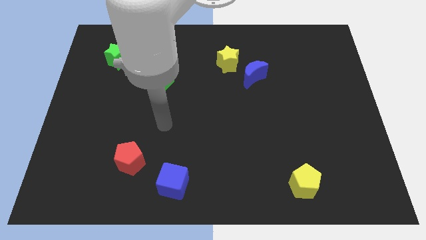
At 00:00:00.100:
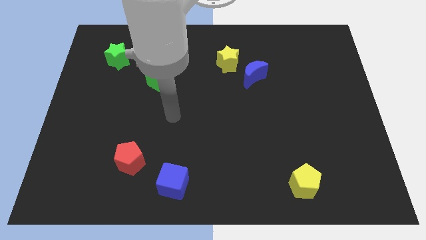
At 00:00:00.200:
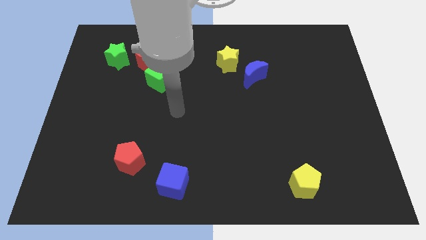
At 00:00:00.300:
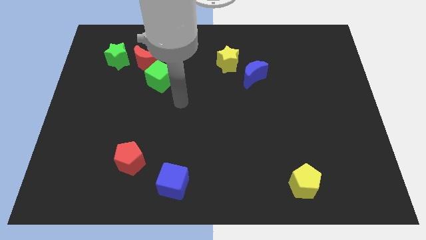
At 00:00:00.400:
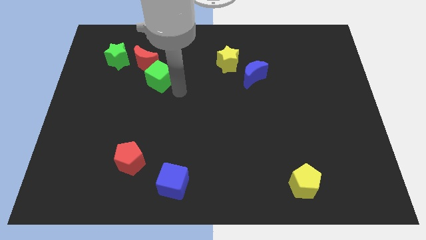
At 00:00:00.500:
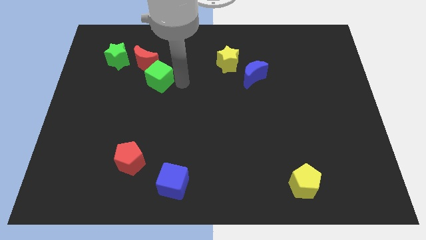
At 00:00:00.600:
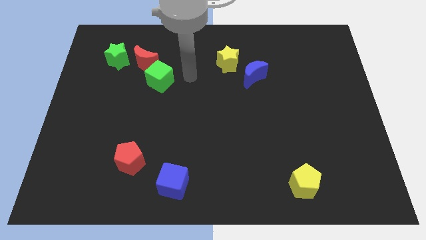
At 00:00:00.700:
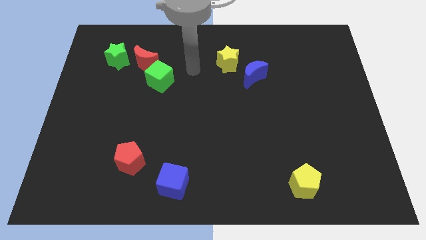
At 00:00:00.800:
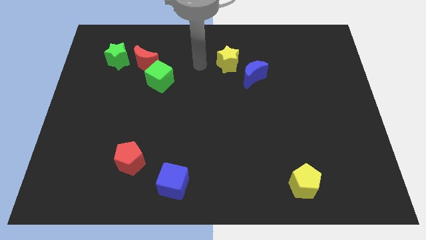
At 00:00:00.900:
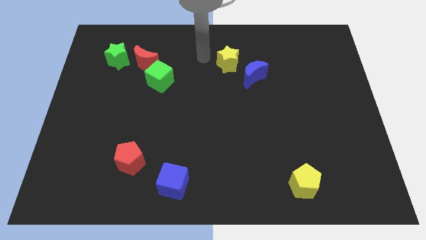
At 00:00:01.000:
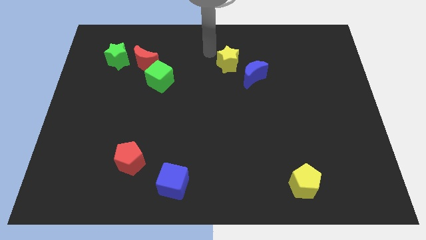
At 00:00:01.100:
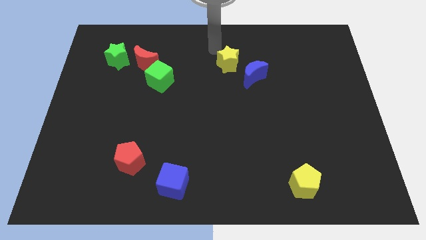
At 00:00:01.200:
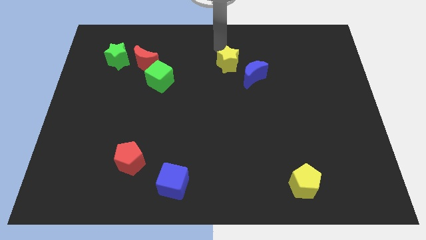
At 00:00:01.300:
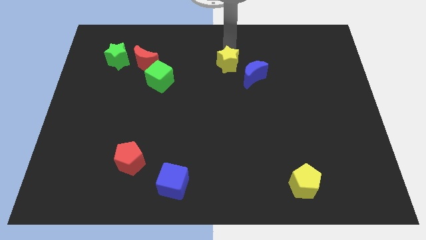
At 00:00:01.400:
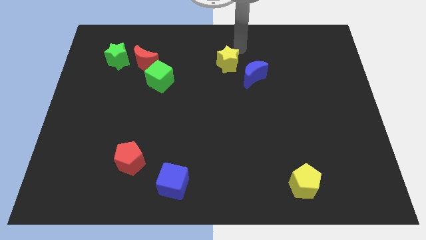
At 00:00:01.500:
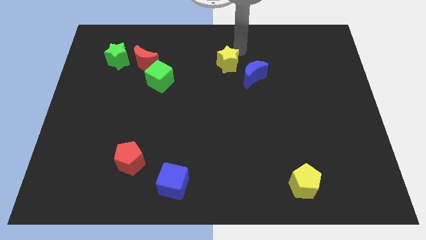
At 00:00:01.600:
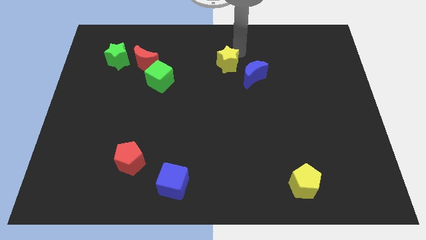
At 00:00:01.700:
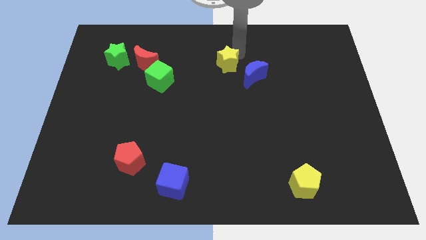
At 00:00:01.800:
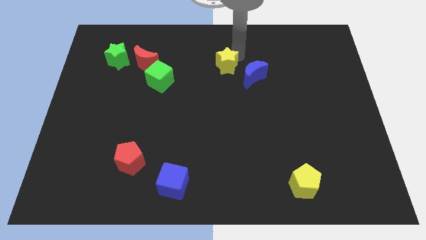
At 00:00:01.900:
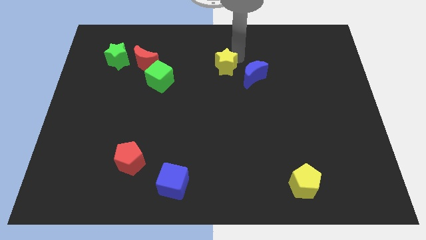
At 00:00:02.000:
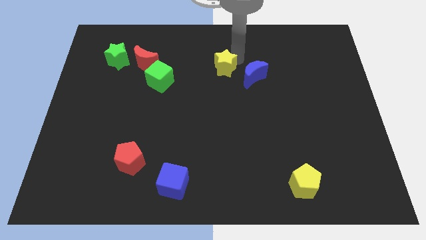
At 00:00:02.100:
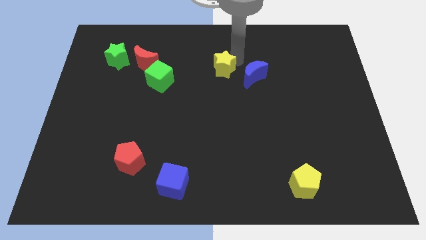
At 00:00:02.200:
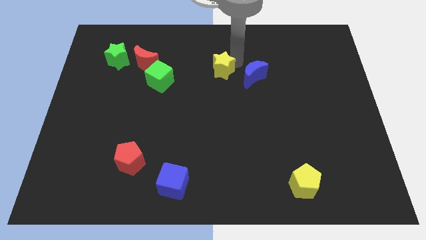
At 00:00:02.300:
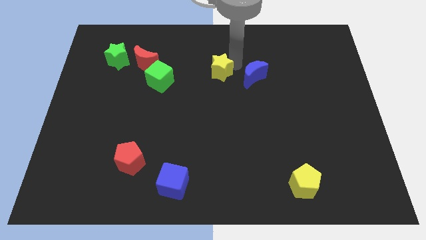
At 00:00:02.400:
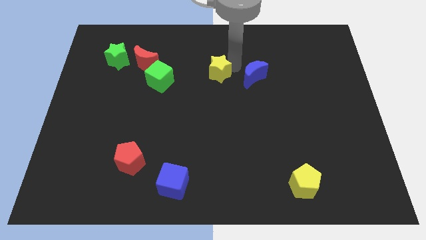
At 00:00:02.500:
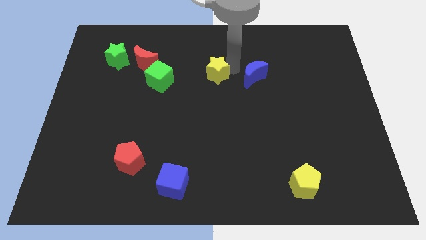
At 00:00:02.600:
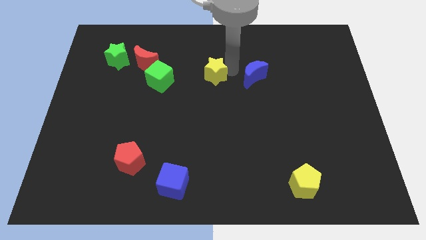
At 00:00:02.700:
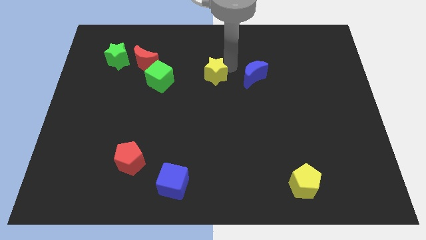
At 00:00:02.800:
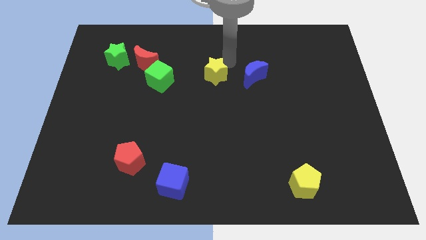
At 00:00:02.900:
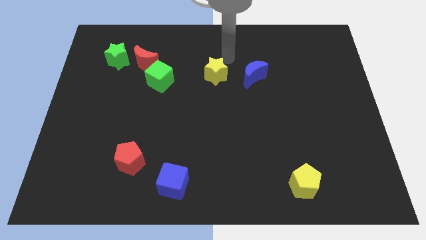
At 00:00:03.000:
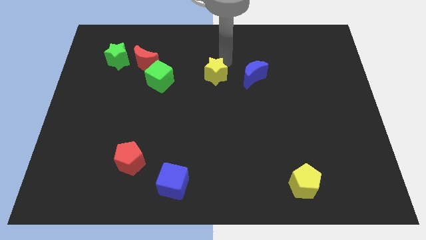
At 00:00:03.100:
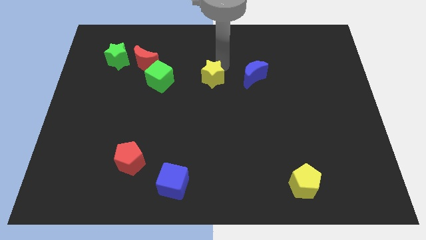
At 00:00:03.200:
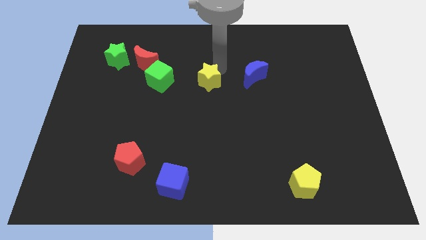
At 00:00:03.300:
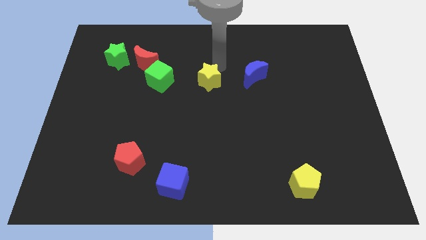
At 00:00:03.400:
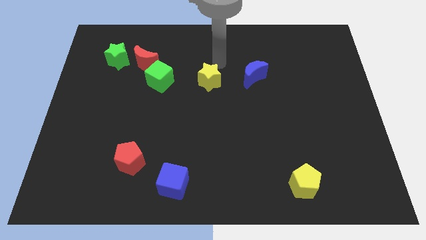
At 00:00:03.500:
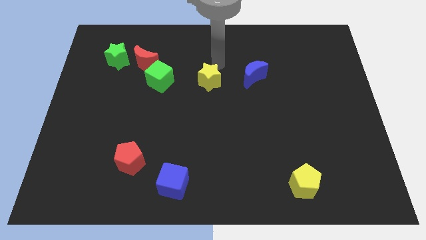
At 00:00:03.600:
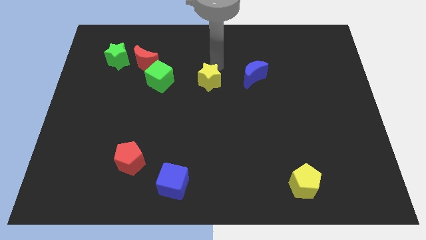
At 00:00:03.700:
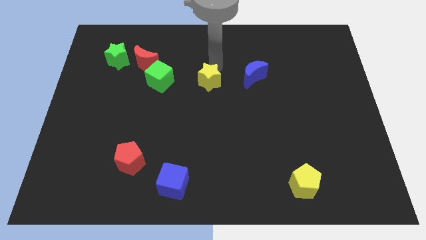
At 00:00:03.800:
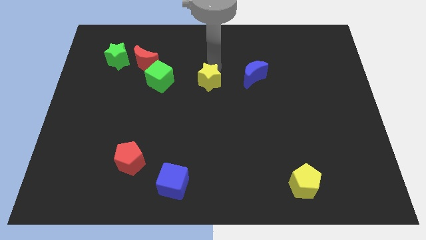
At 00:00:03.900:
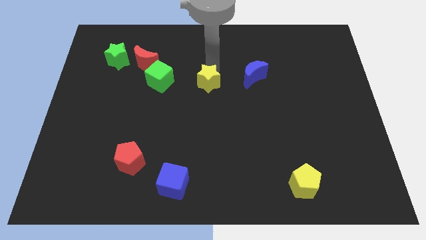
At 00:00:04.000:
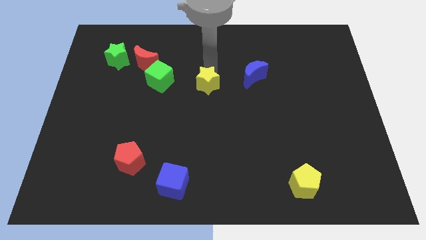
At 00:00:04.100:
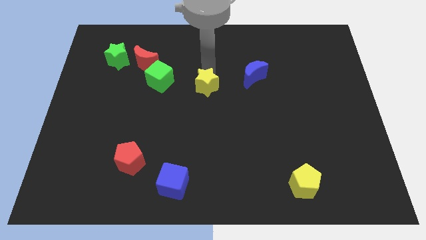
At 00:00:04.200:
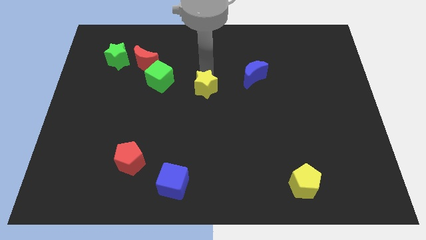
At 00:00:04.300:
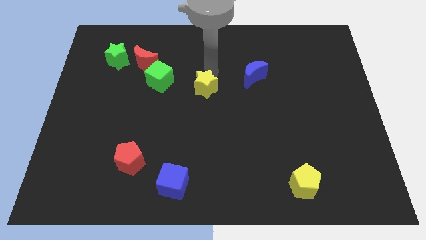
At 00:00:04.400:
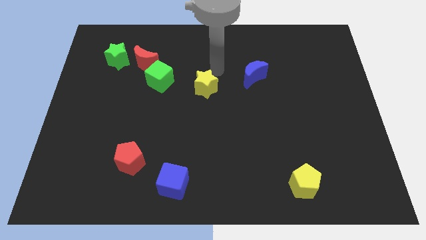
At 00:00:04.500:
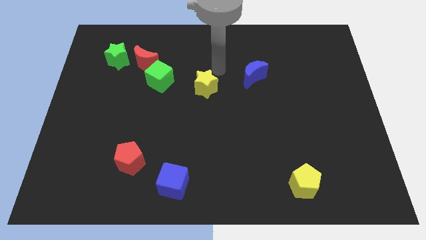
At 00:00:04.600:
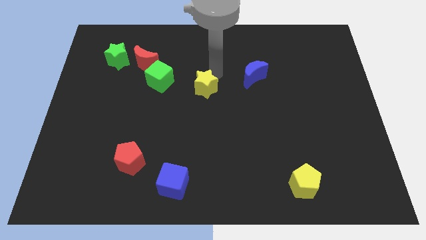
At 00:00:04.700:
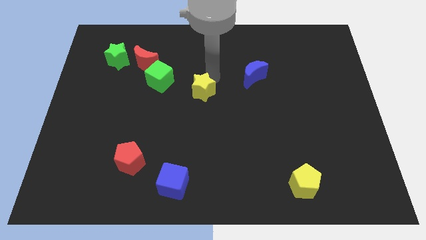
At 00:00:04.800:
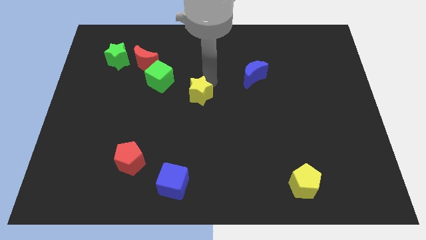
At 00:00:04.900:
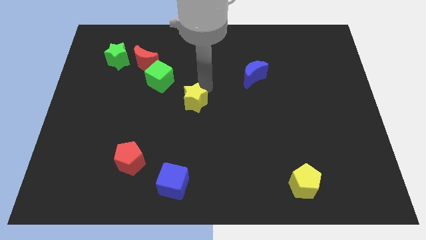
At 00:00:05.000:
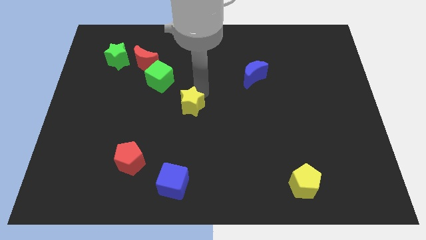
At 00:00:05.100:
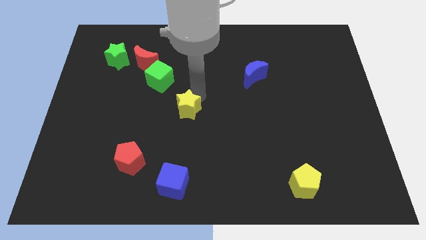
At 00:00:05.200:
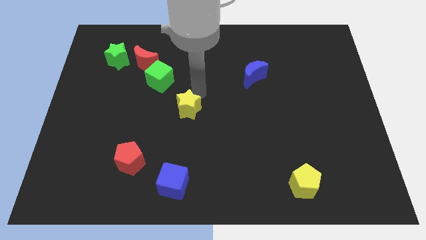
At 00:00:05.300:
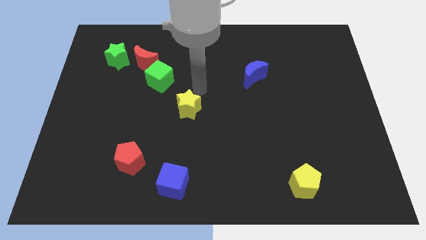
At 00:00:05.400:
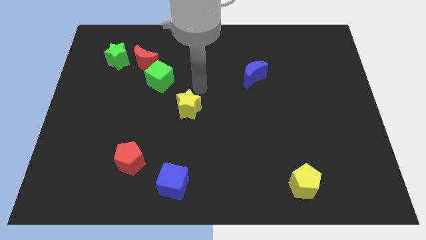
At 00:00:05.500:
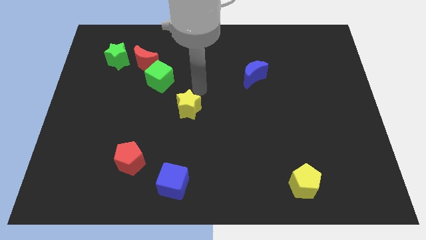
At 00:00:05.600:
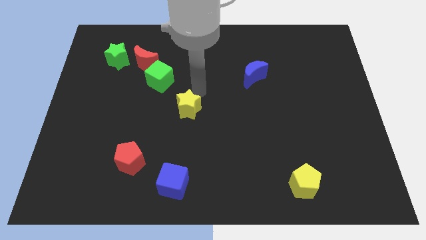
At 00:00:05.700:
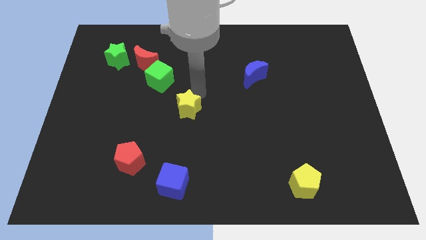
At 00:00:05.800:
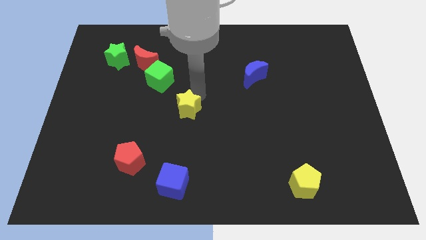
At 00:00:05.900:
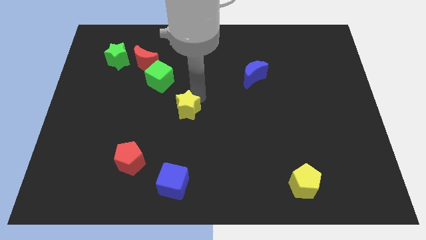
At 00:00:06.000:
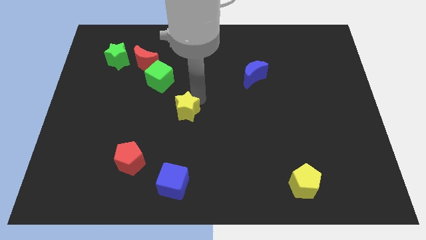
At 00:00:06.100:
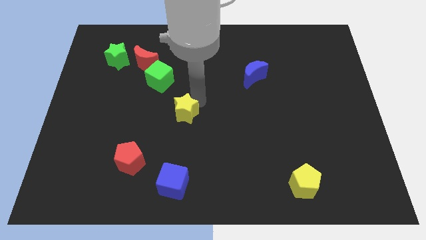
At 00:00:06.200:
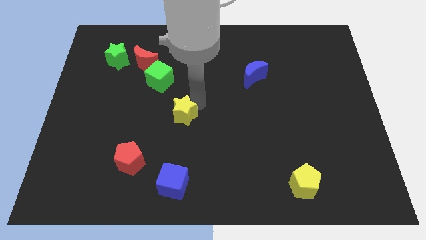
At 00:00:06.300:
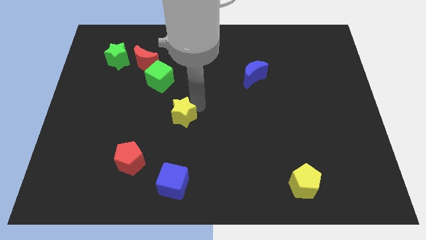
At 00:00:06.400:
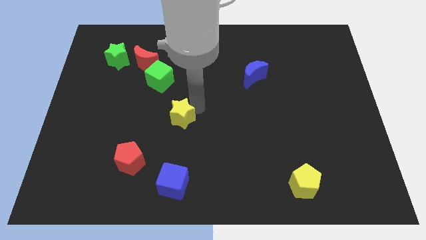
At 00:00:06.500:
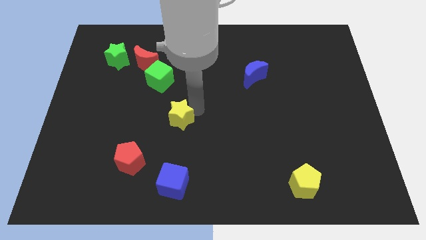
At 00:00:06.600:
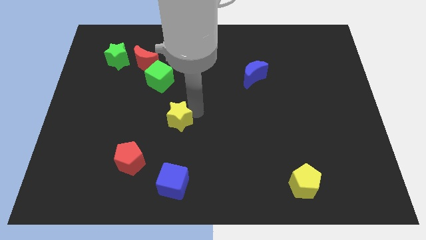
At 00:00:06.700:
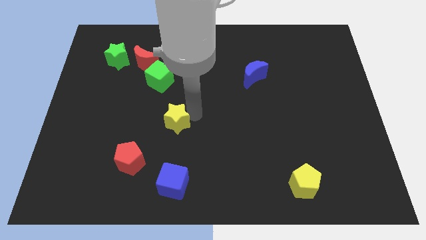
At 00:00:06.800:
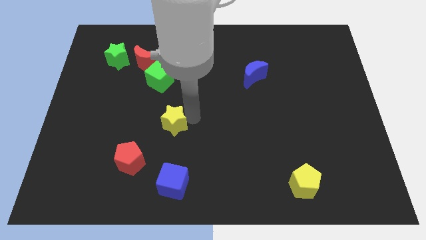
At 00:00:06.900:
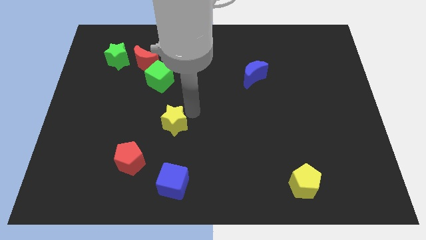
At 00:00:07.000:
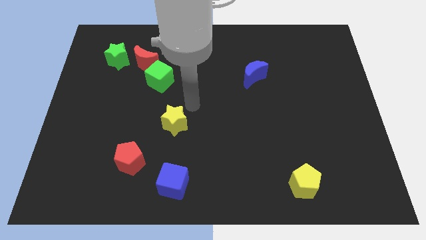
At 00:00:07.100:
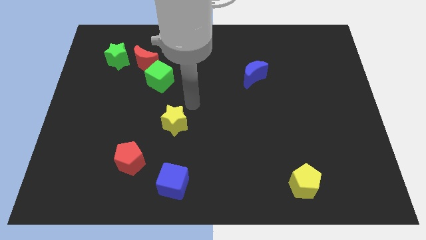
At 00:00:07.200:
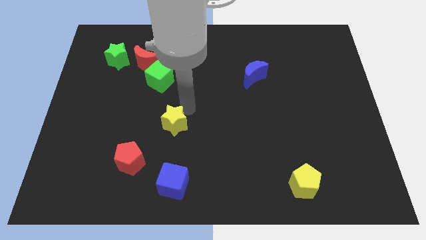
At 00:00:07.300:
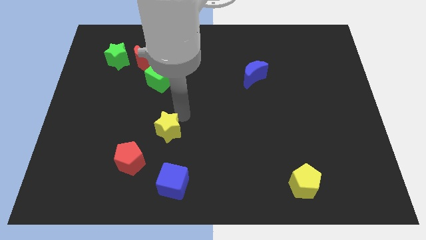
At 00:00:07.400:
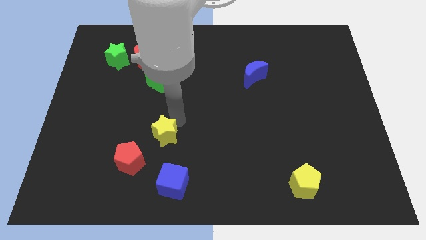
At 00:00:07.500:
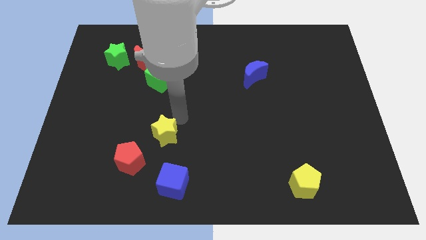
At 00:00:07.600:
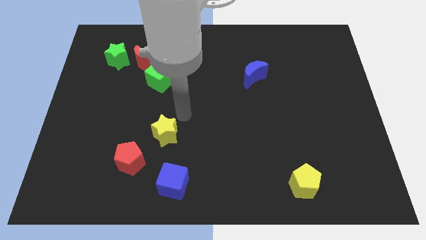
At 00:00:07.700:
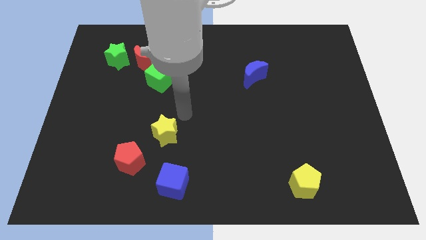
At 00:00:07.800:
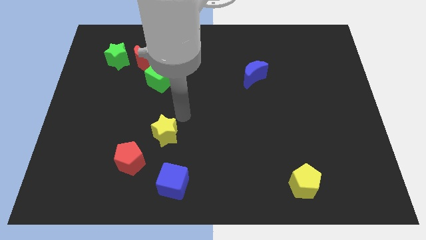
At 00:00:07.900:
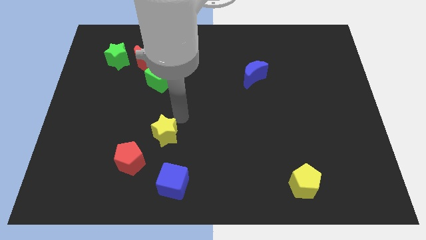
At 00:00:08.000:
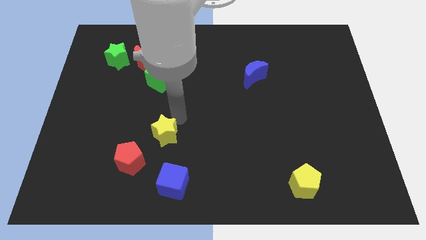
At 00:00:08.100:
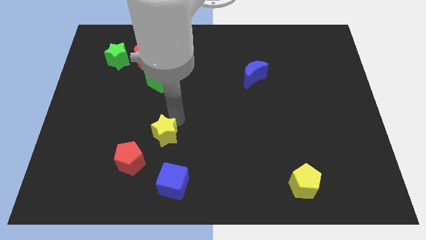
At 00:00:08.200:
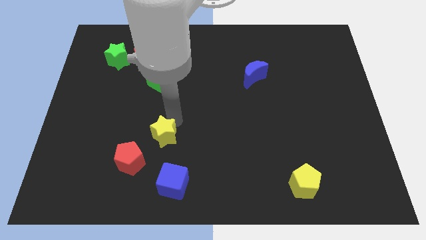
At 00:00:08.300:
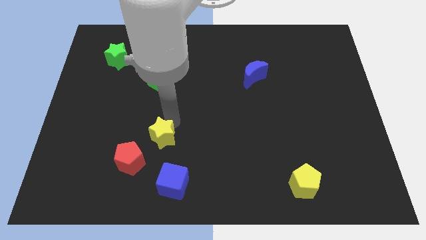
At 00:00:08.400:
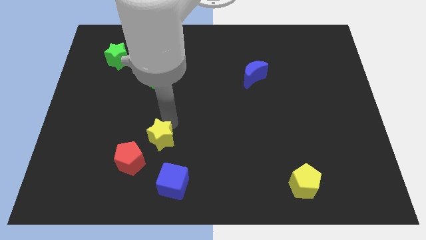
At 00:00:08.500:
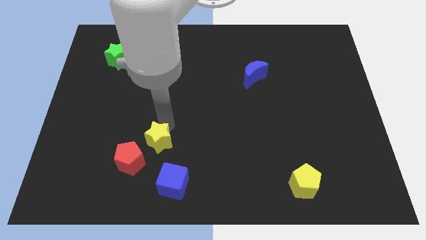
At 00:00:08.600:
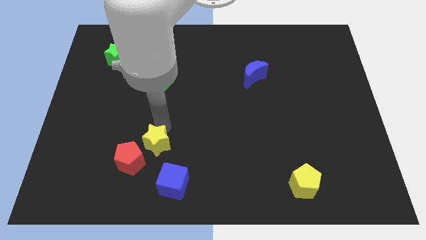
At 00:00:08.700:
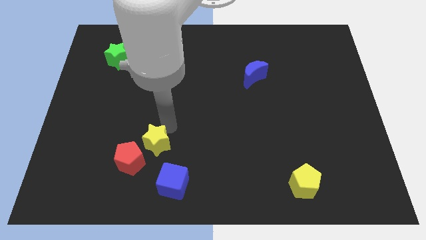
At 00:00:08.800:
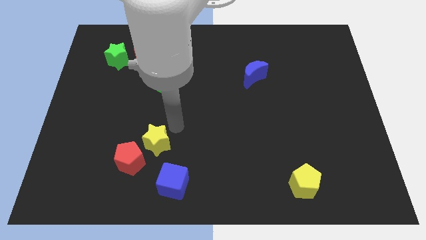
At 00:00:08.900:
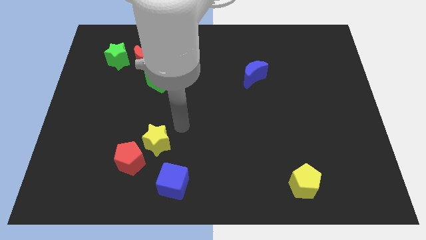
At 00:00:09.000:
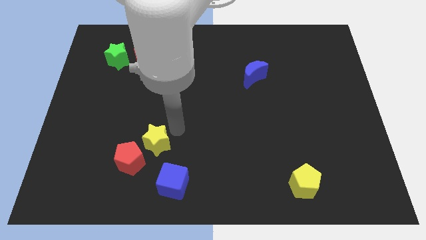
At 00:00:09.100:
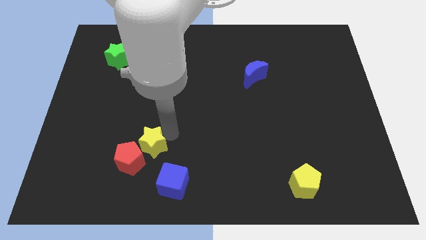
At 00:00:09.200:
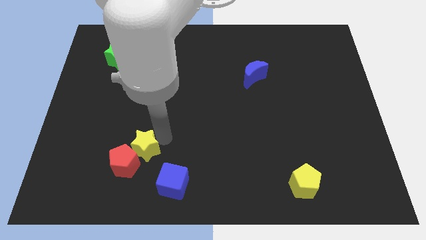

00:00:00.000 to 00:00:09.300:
put the yellow star close to the red pentagon
